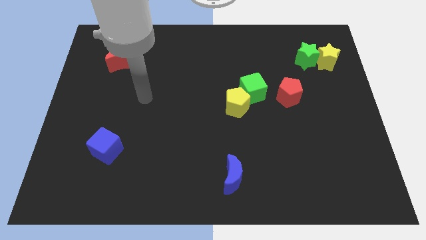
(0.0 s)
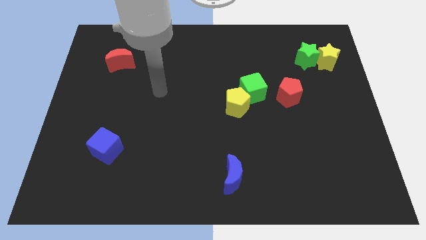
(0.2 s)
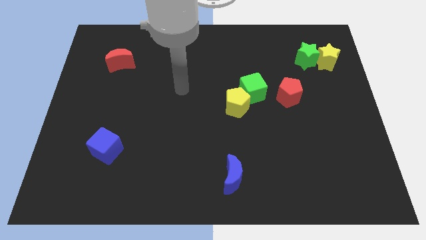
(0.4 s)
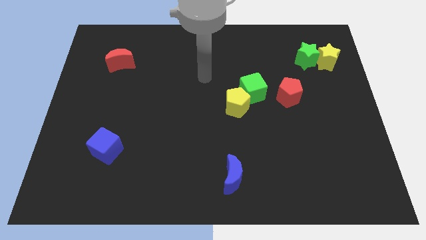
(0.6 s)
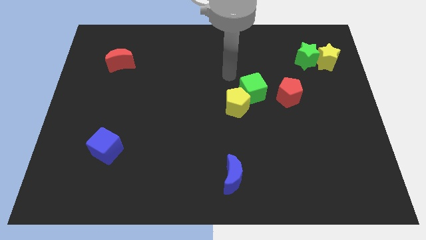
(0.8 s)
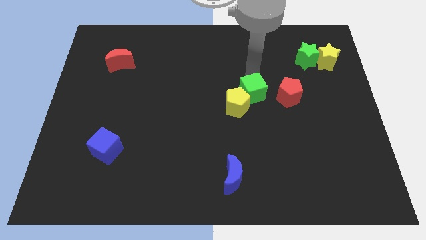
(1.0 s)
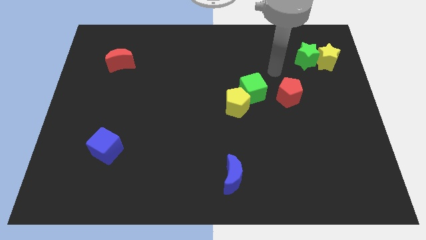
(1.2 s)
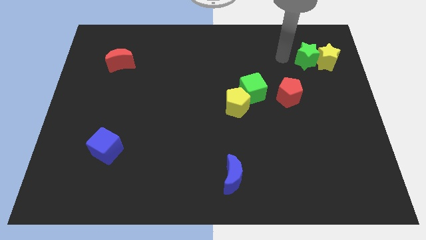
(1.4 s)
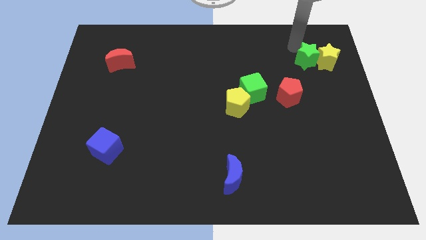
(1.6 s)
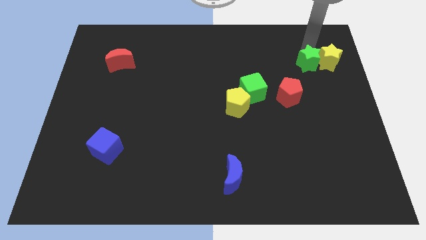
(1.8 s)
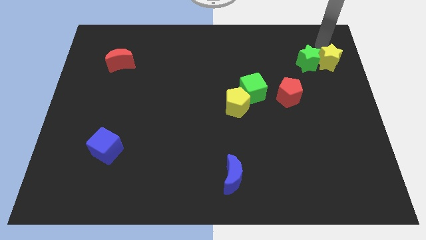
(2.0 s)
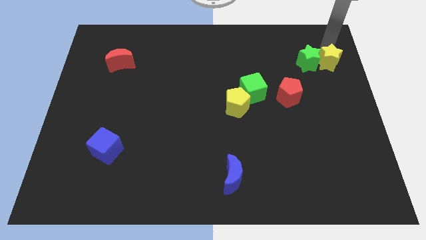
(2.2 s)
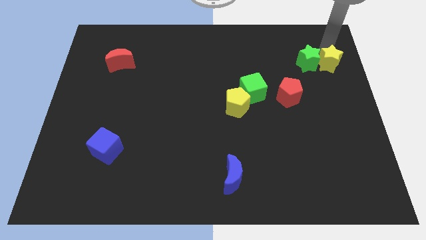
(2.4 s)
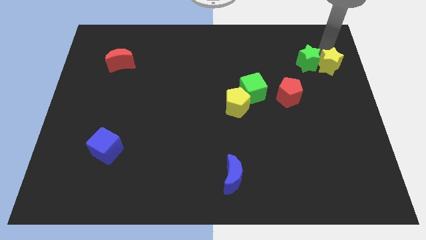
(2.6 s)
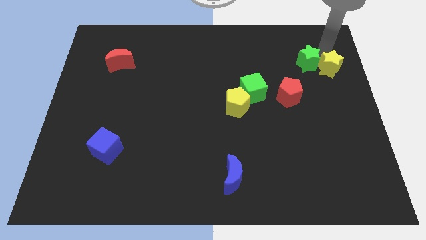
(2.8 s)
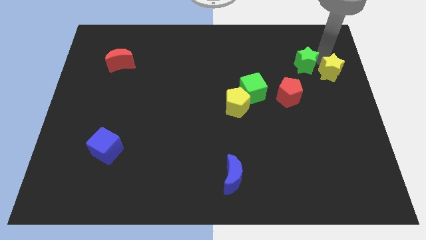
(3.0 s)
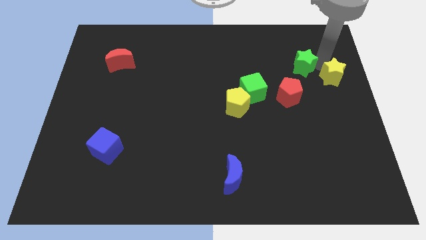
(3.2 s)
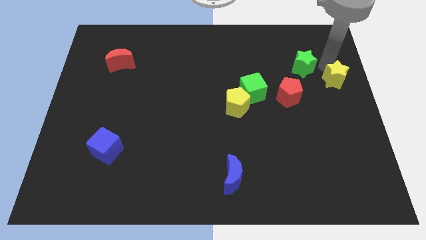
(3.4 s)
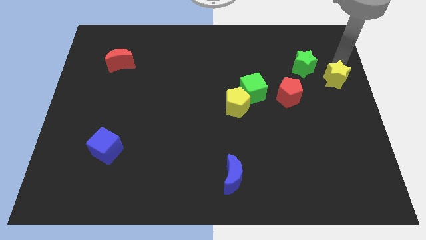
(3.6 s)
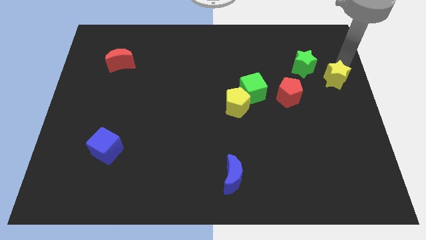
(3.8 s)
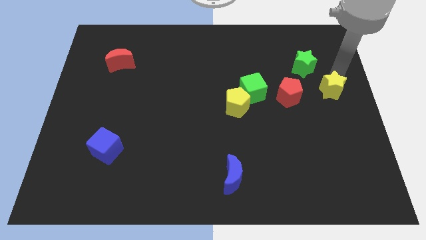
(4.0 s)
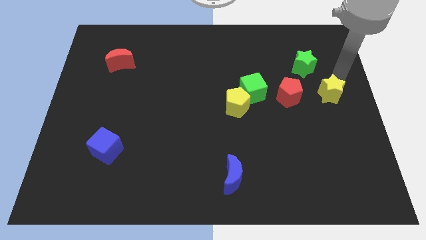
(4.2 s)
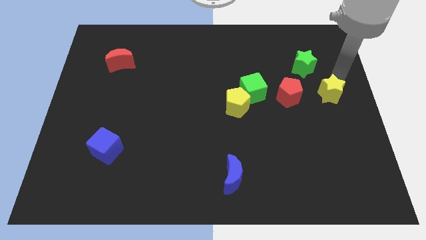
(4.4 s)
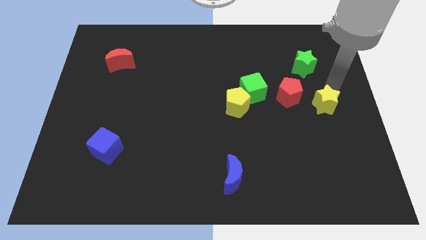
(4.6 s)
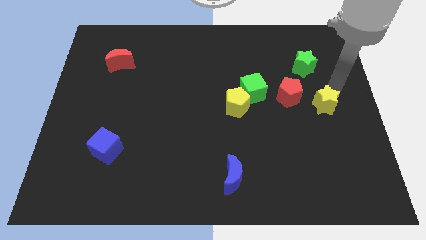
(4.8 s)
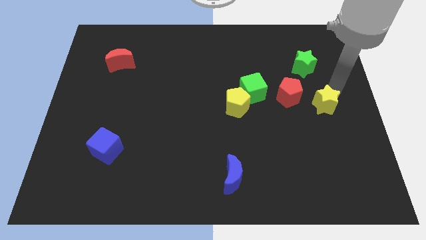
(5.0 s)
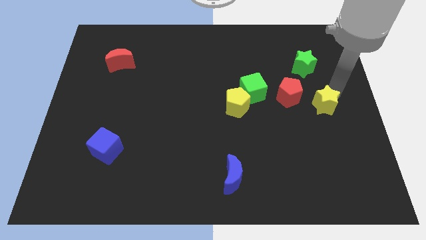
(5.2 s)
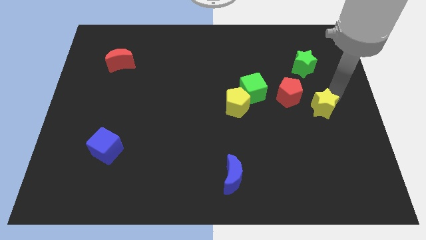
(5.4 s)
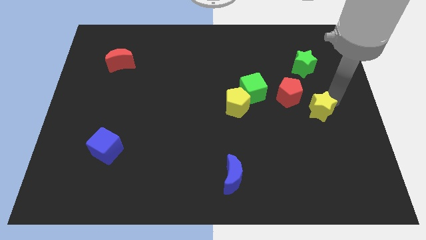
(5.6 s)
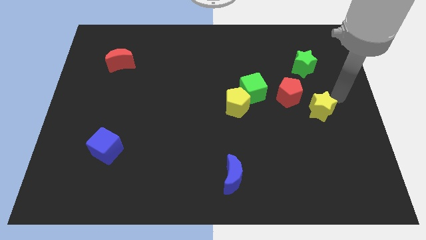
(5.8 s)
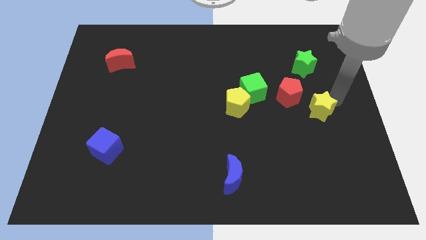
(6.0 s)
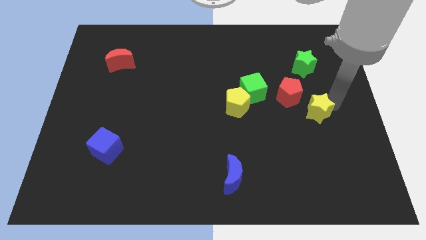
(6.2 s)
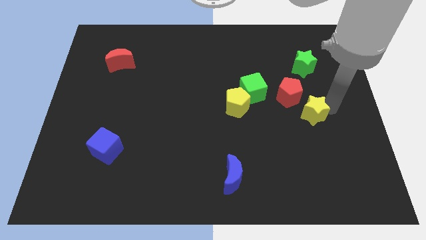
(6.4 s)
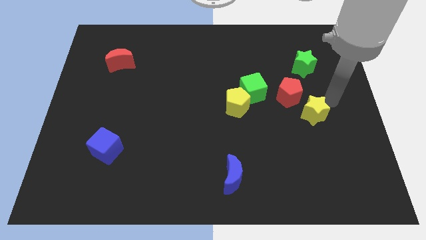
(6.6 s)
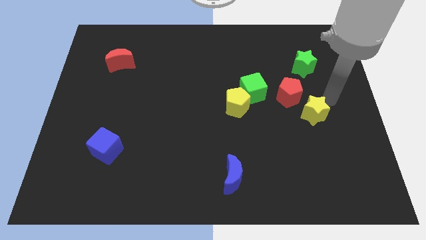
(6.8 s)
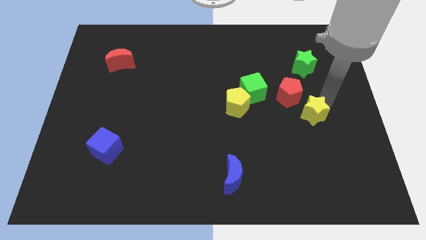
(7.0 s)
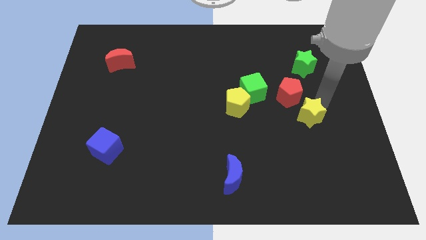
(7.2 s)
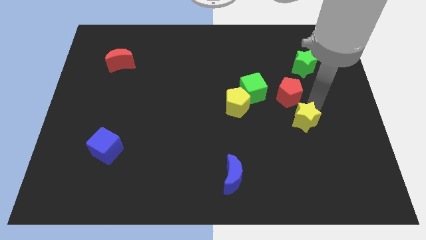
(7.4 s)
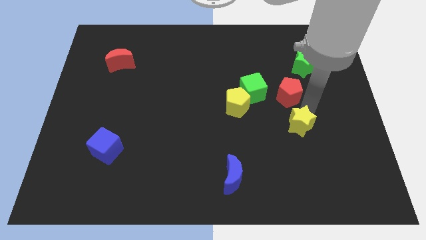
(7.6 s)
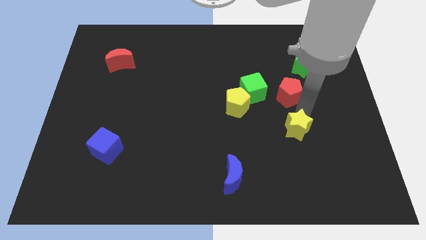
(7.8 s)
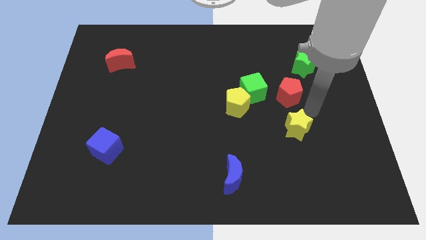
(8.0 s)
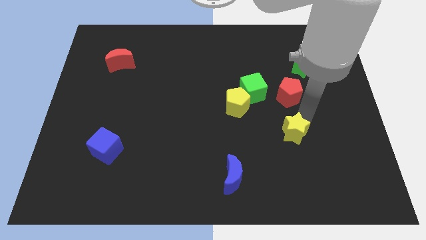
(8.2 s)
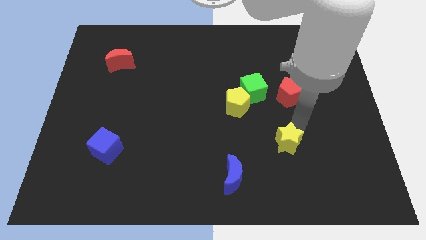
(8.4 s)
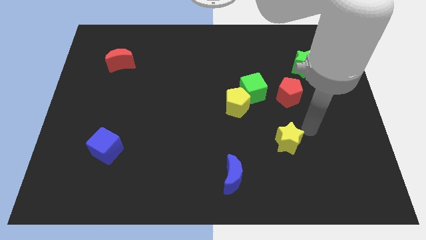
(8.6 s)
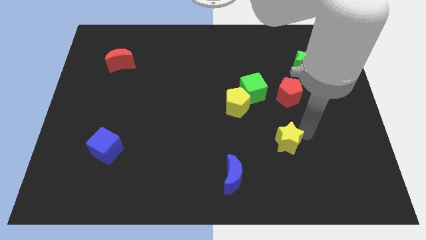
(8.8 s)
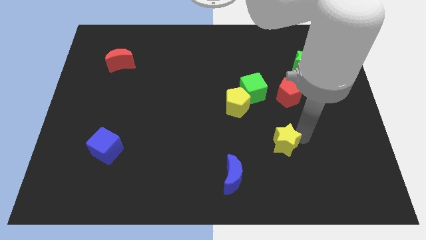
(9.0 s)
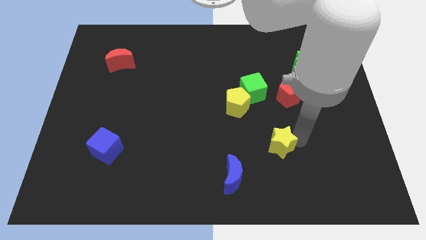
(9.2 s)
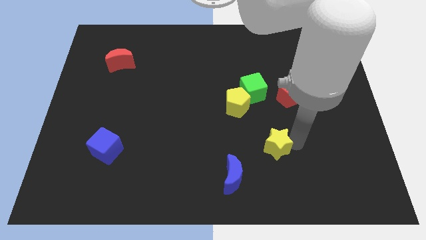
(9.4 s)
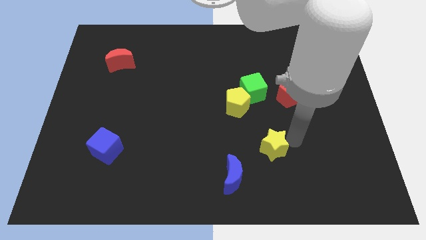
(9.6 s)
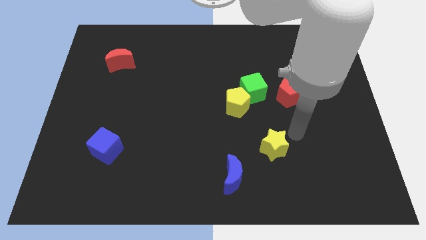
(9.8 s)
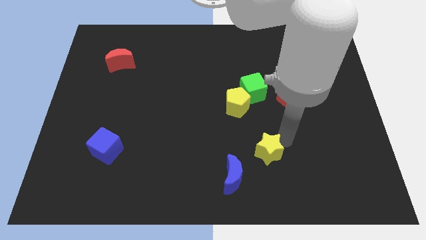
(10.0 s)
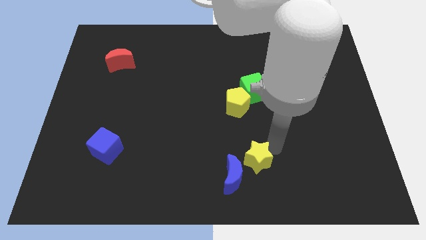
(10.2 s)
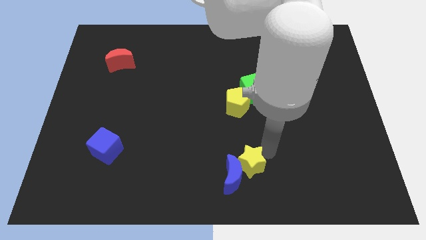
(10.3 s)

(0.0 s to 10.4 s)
put the yellow star towards the blue moon

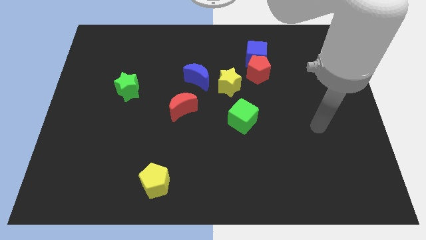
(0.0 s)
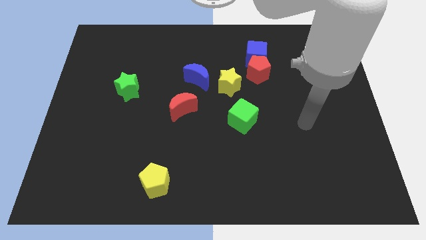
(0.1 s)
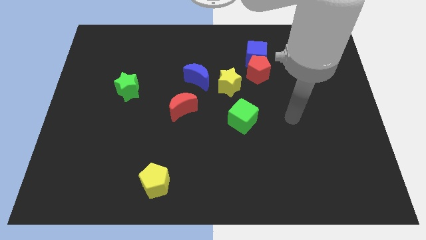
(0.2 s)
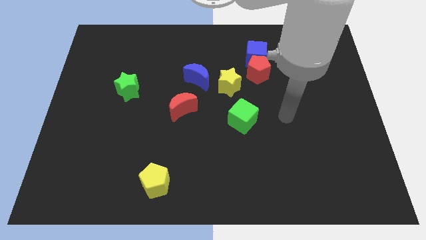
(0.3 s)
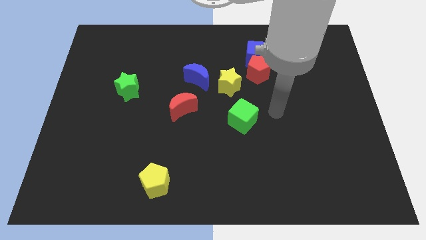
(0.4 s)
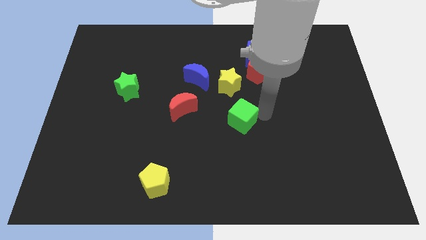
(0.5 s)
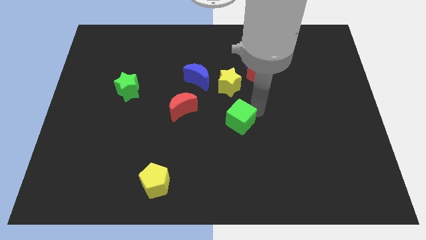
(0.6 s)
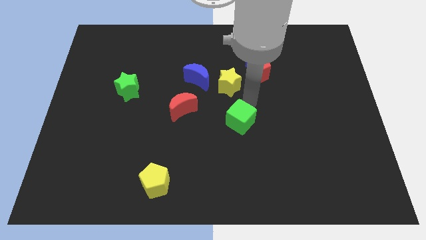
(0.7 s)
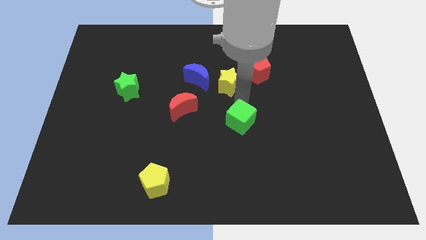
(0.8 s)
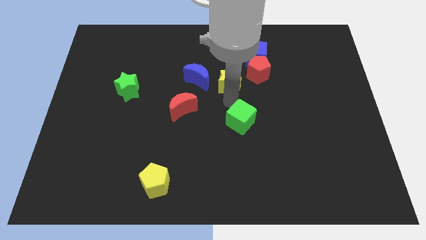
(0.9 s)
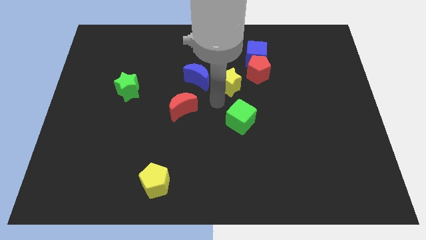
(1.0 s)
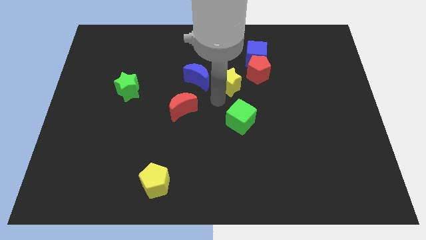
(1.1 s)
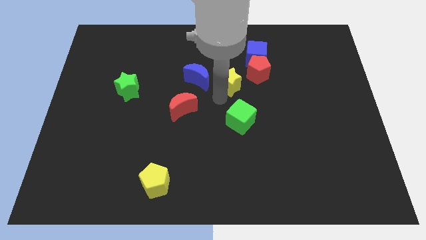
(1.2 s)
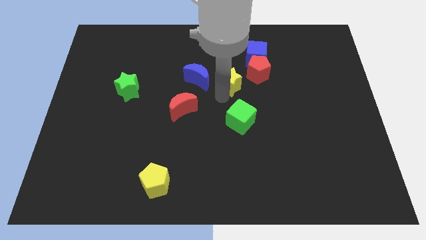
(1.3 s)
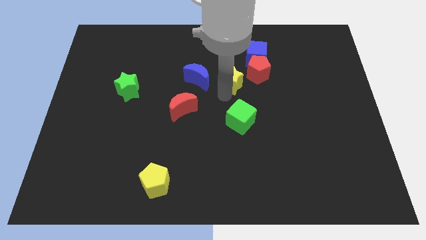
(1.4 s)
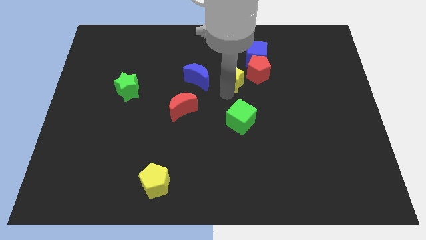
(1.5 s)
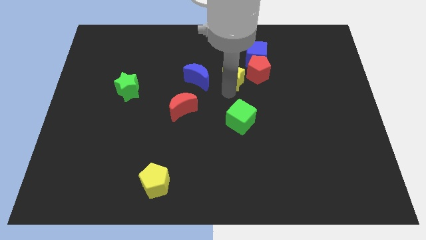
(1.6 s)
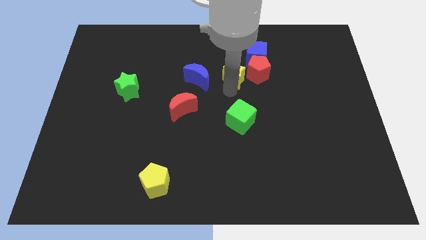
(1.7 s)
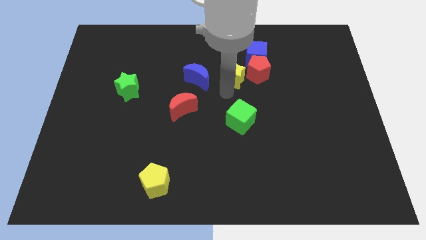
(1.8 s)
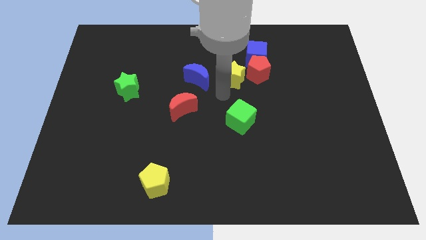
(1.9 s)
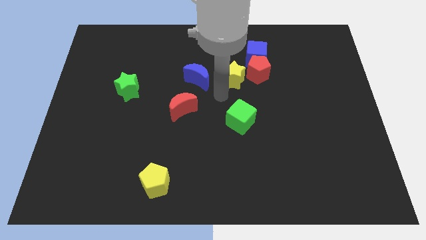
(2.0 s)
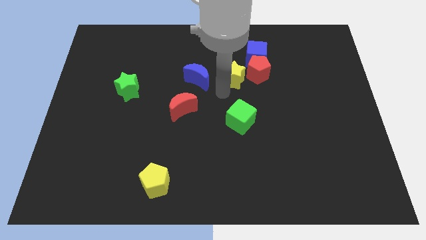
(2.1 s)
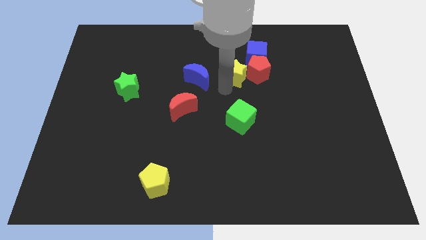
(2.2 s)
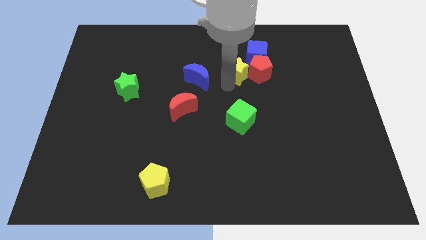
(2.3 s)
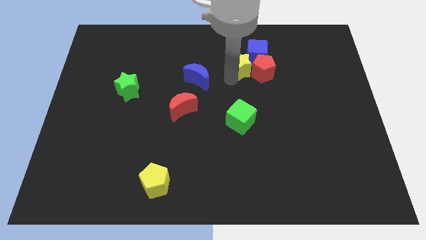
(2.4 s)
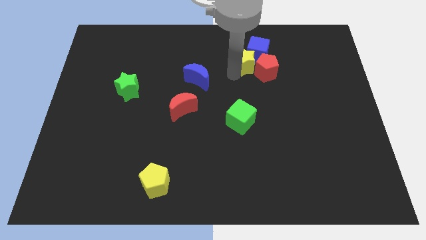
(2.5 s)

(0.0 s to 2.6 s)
put the yellow star next to the blue cube
